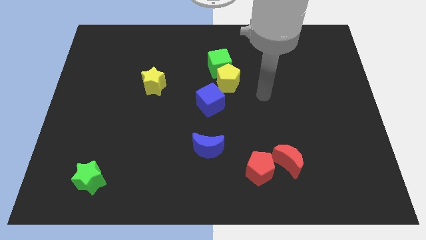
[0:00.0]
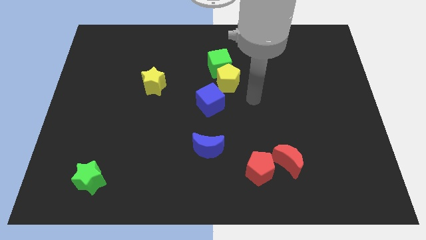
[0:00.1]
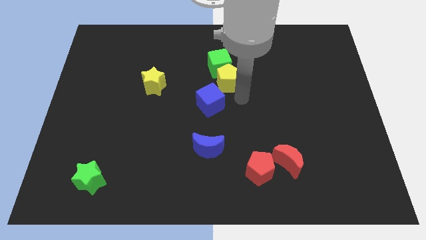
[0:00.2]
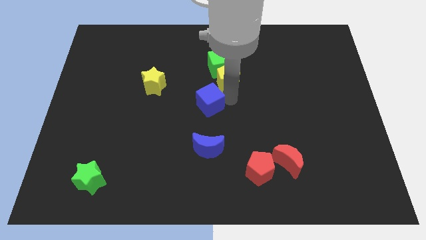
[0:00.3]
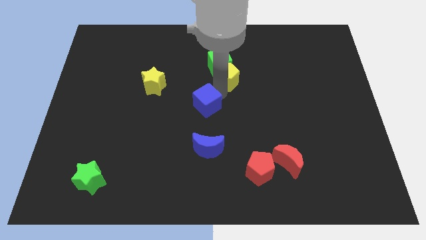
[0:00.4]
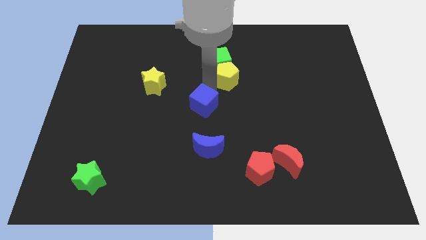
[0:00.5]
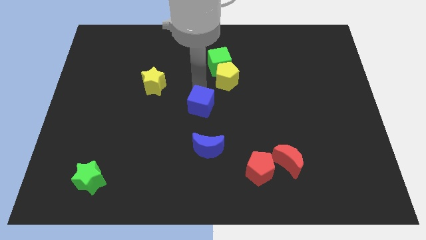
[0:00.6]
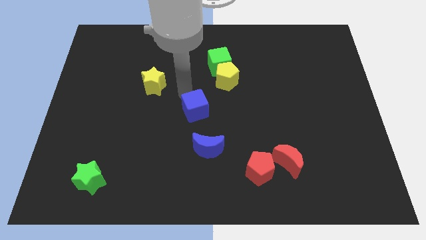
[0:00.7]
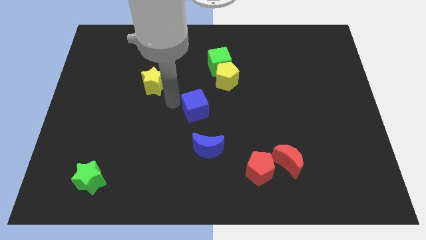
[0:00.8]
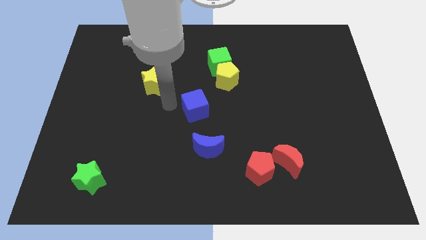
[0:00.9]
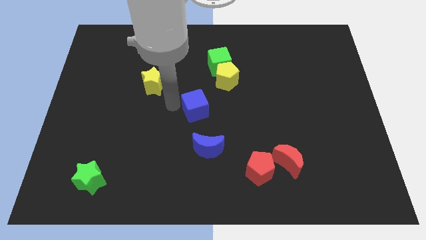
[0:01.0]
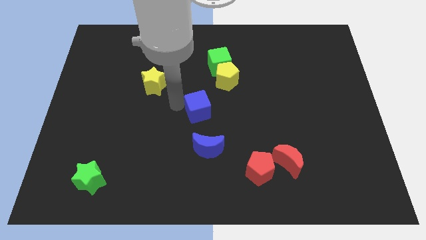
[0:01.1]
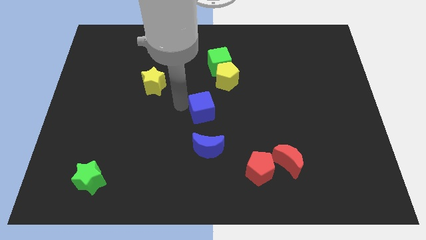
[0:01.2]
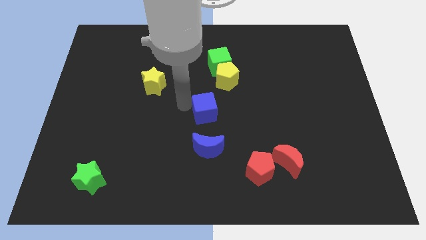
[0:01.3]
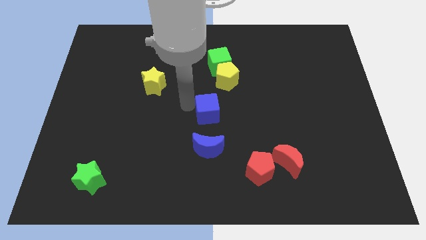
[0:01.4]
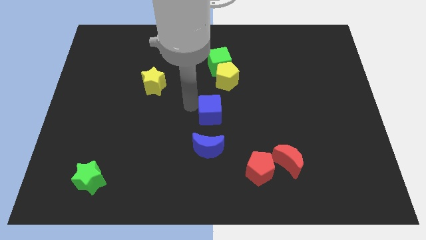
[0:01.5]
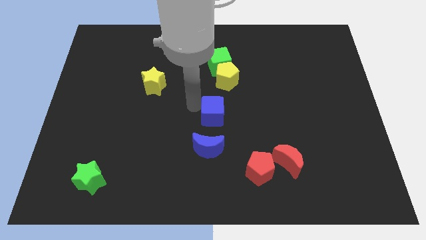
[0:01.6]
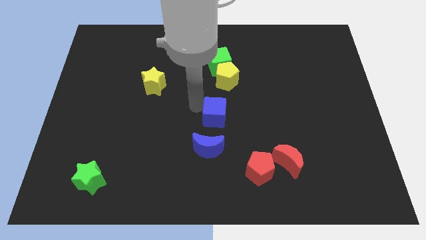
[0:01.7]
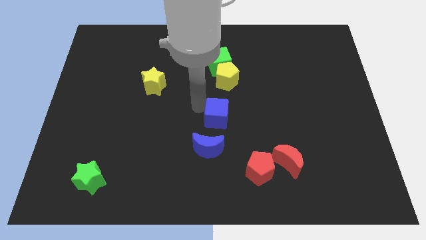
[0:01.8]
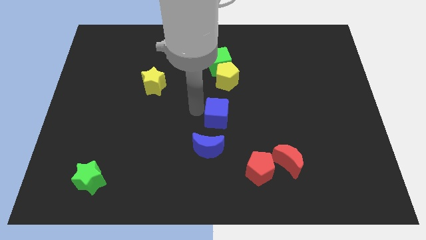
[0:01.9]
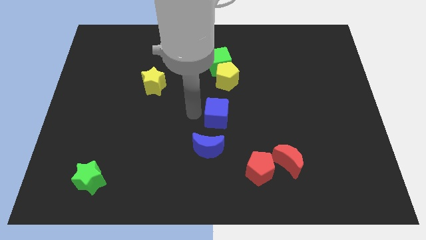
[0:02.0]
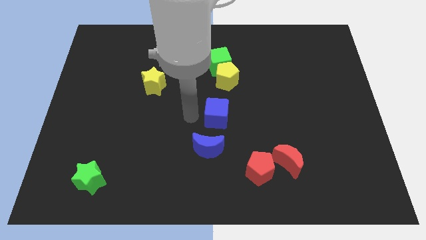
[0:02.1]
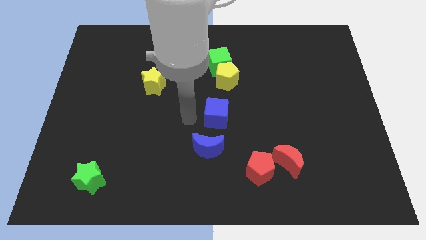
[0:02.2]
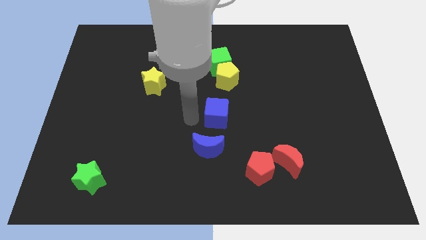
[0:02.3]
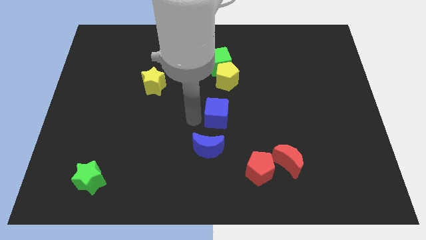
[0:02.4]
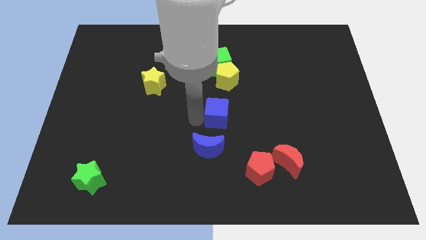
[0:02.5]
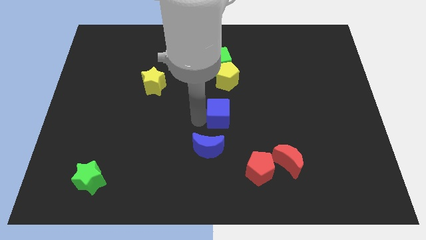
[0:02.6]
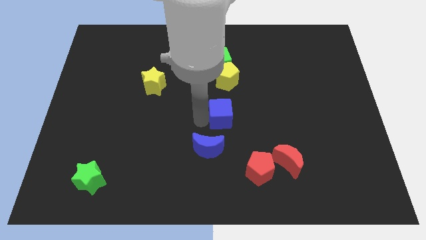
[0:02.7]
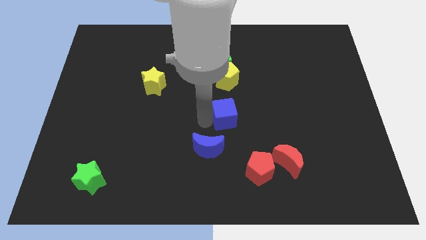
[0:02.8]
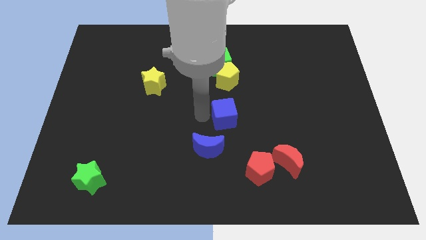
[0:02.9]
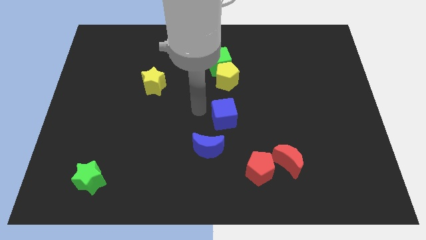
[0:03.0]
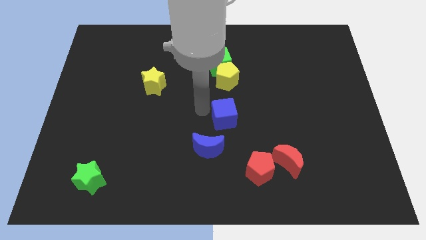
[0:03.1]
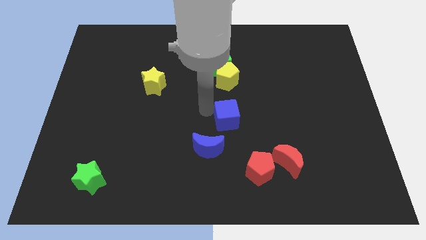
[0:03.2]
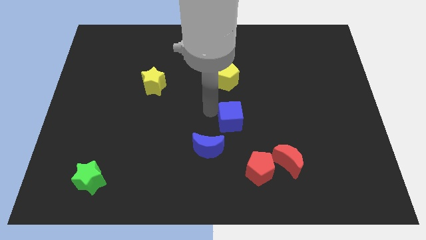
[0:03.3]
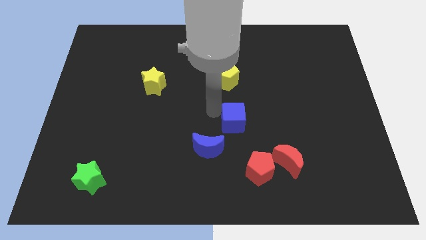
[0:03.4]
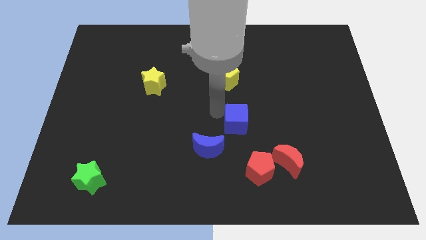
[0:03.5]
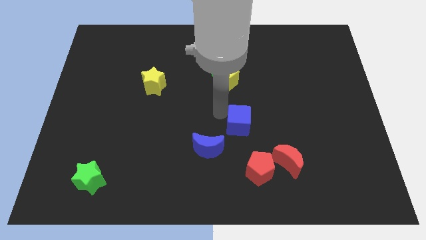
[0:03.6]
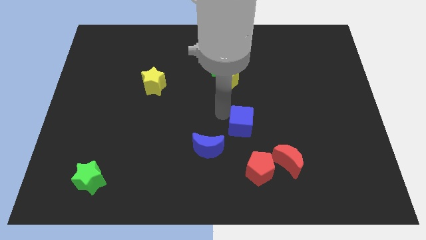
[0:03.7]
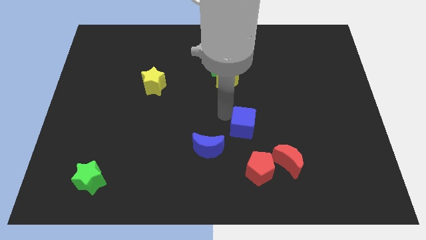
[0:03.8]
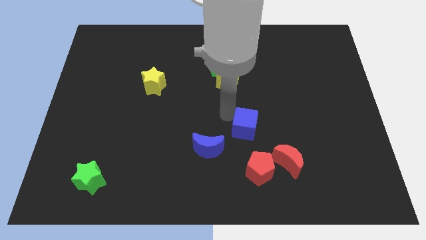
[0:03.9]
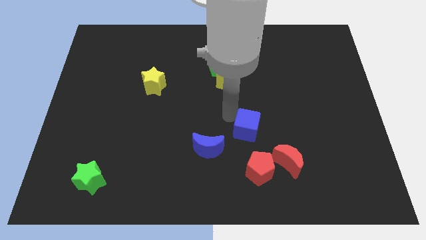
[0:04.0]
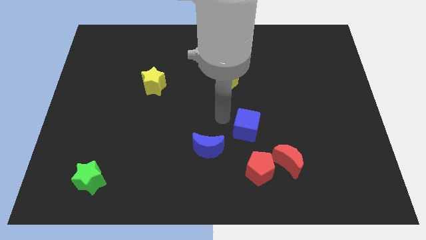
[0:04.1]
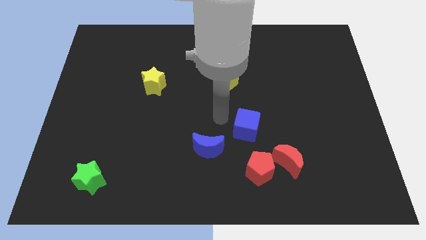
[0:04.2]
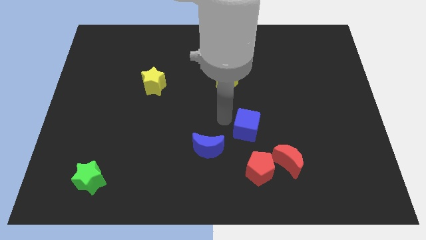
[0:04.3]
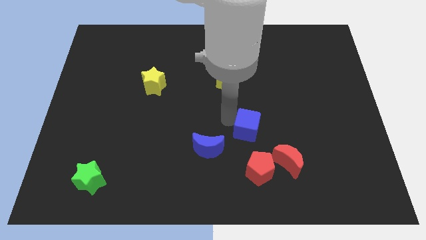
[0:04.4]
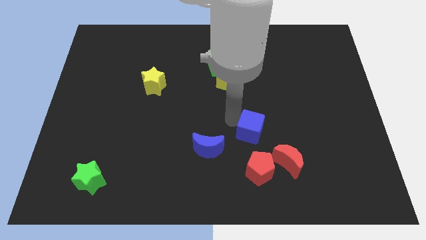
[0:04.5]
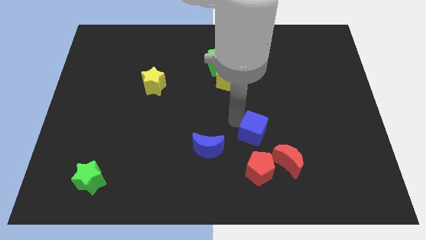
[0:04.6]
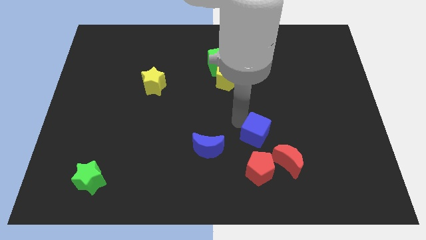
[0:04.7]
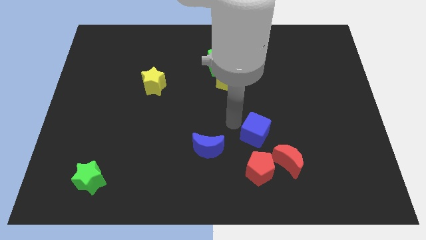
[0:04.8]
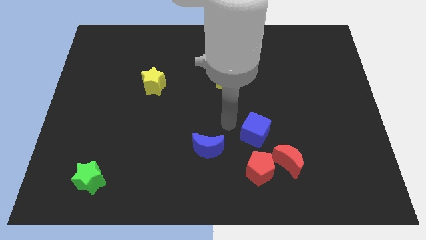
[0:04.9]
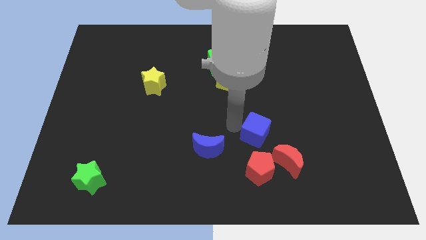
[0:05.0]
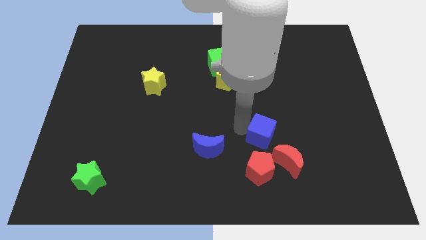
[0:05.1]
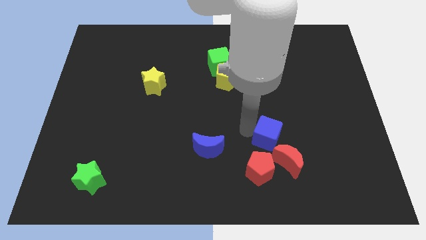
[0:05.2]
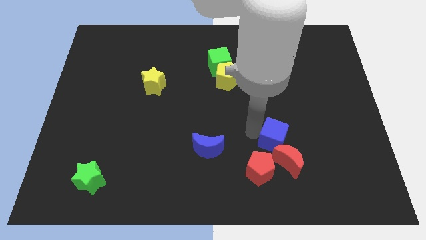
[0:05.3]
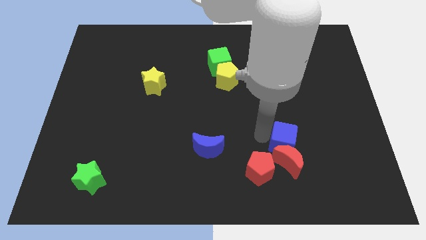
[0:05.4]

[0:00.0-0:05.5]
push the blue cube diagonally up and to the right of the red moon

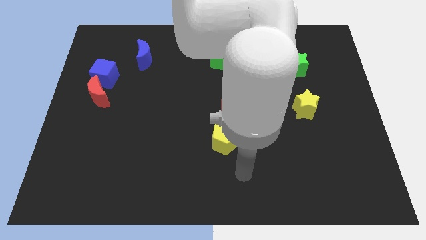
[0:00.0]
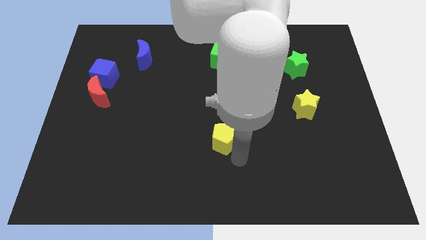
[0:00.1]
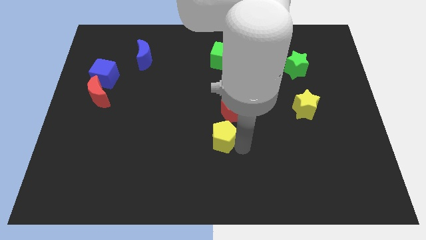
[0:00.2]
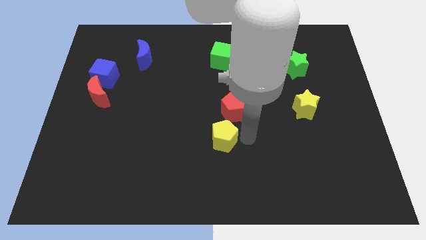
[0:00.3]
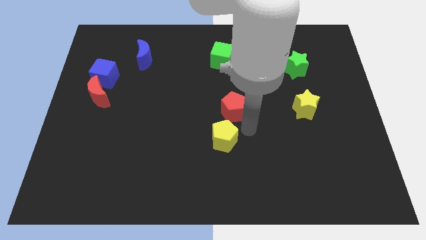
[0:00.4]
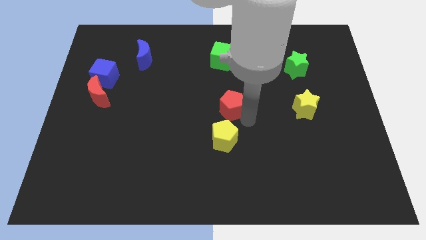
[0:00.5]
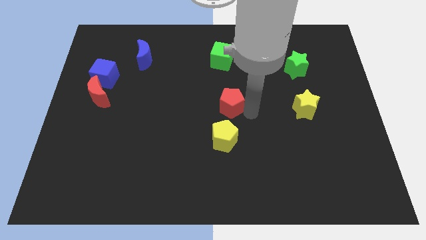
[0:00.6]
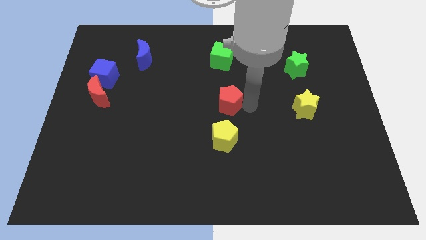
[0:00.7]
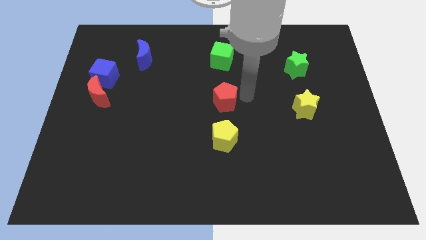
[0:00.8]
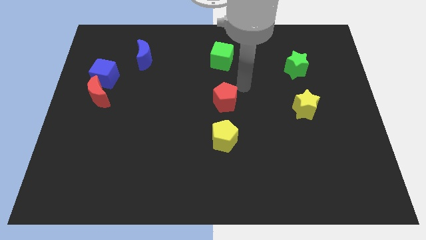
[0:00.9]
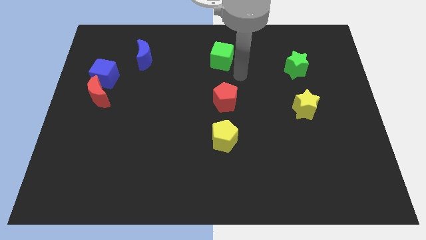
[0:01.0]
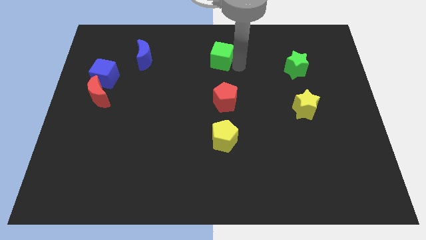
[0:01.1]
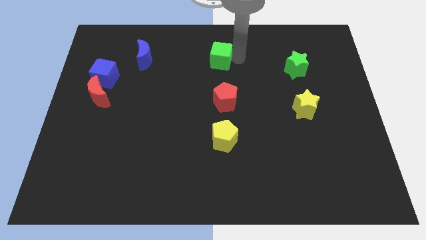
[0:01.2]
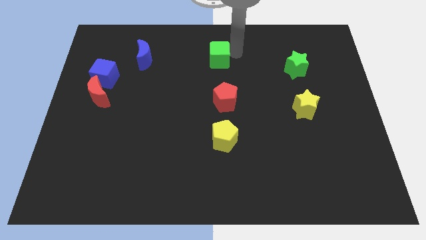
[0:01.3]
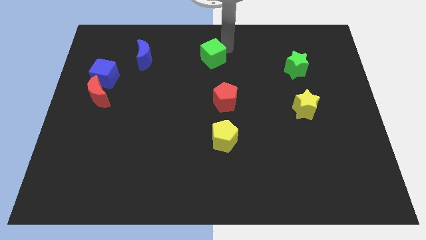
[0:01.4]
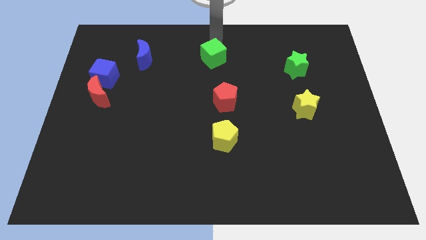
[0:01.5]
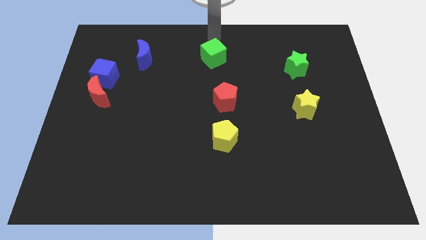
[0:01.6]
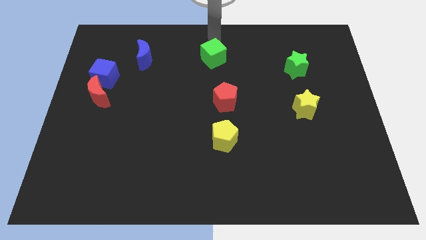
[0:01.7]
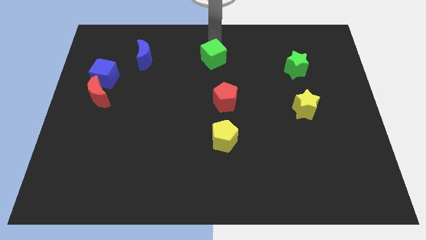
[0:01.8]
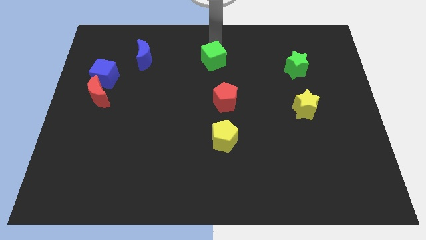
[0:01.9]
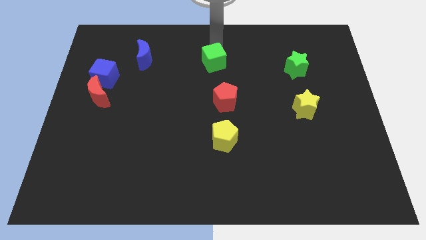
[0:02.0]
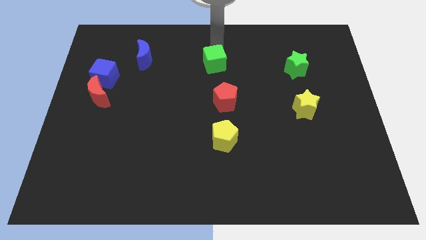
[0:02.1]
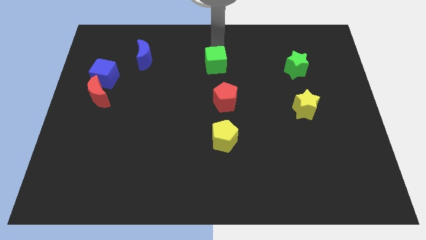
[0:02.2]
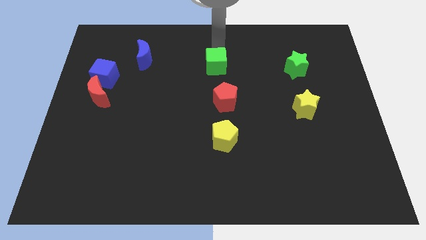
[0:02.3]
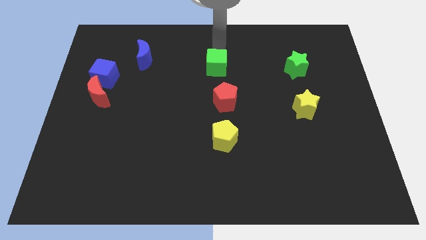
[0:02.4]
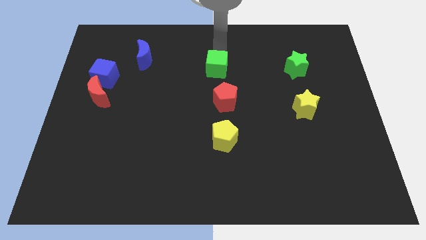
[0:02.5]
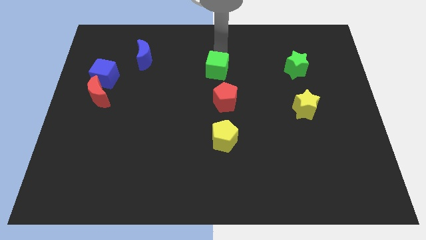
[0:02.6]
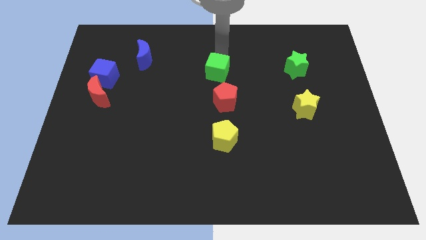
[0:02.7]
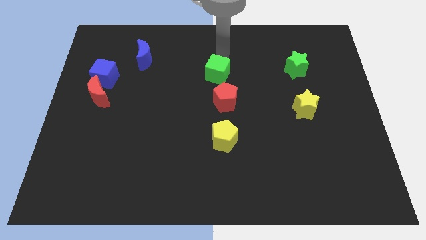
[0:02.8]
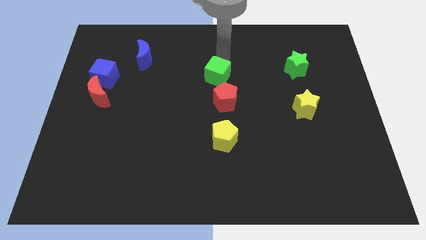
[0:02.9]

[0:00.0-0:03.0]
push the green cube diagonally up and to the left of the red pentagon
